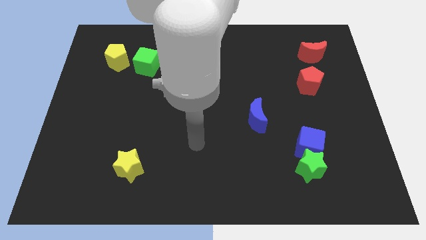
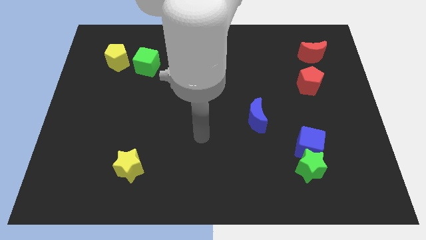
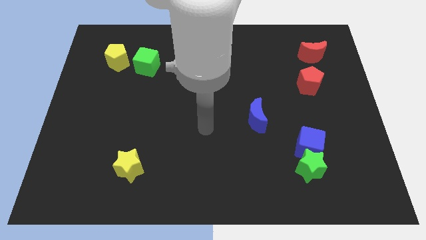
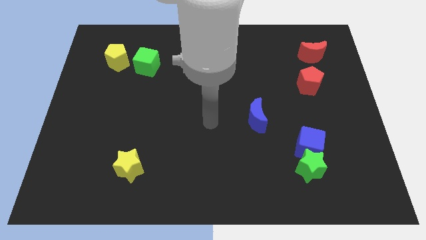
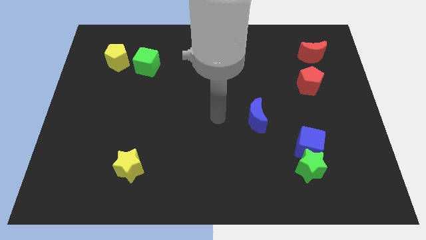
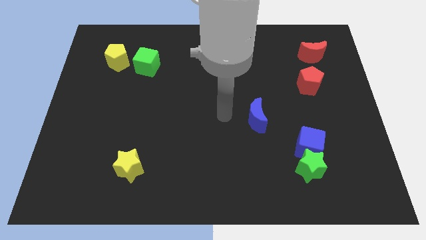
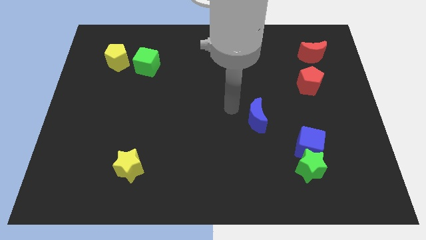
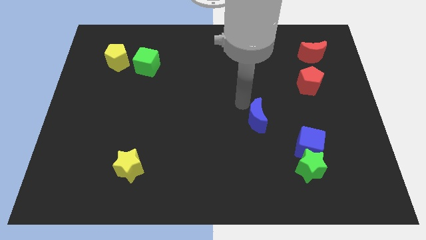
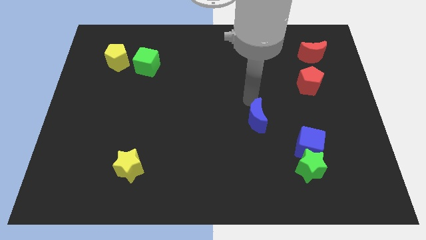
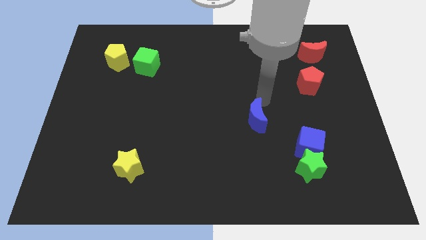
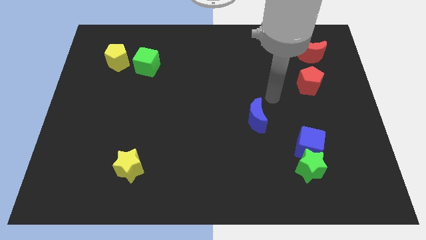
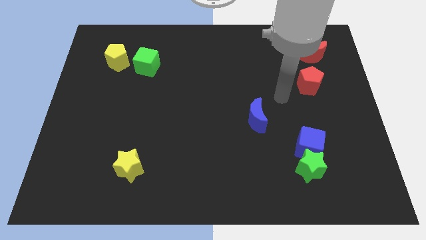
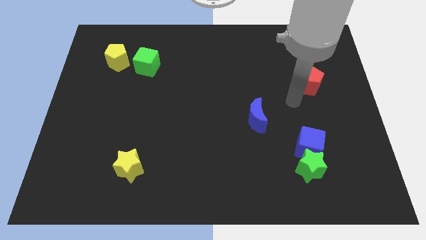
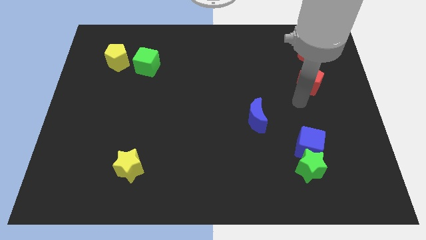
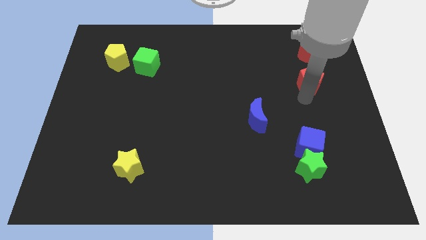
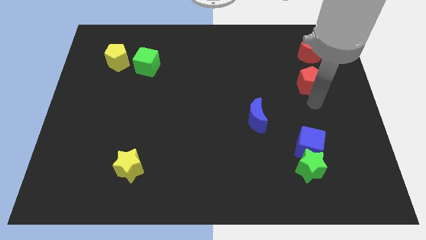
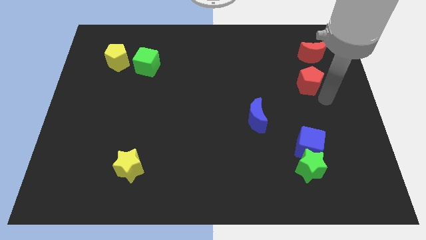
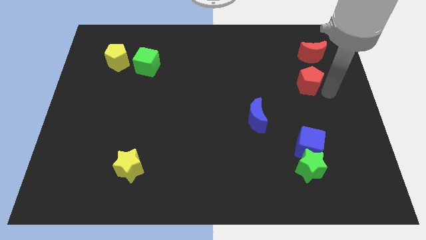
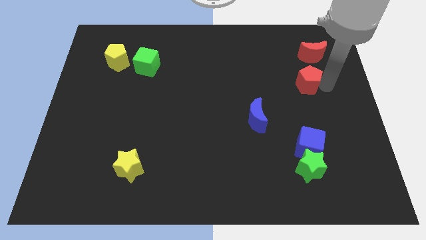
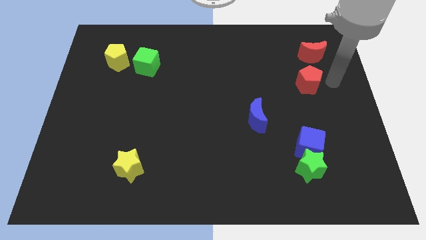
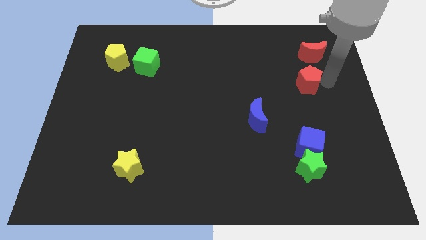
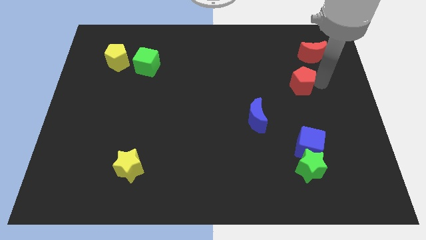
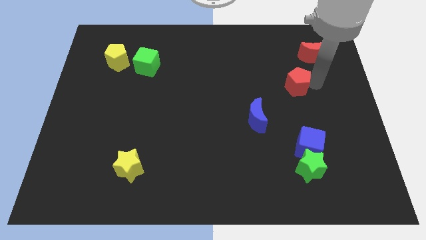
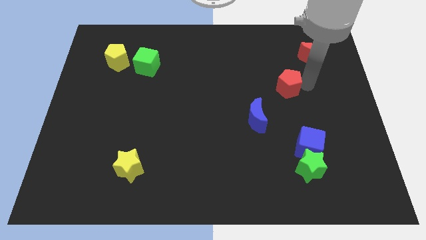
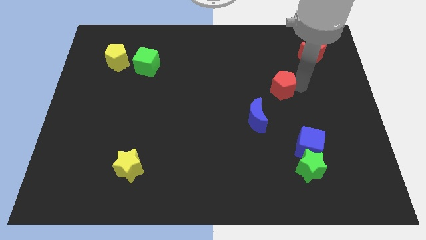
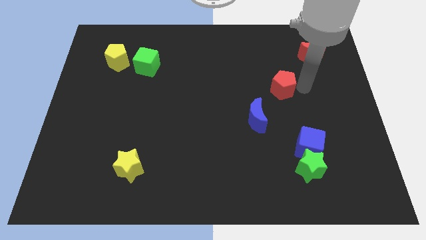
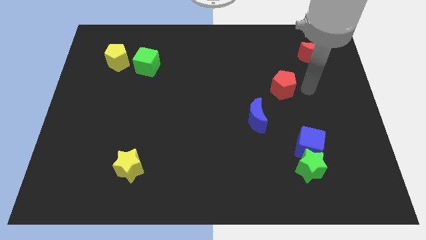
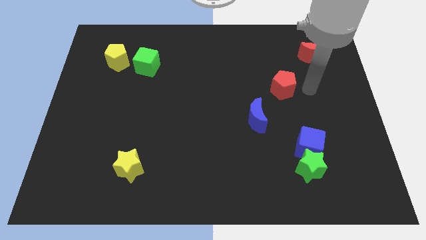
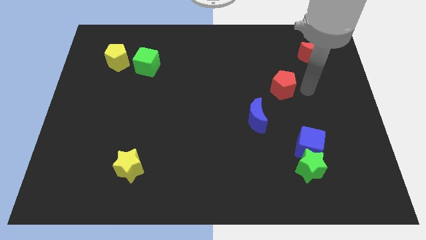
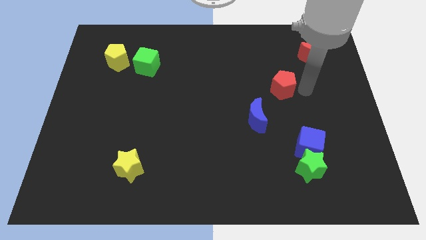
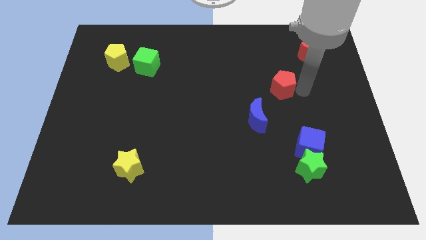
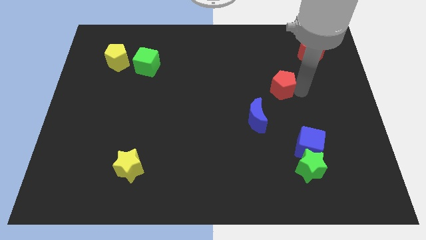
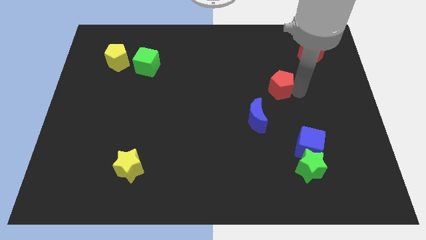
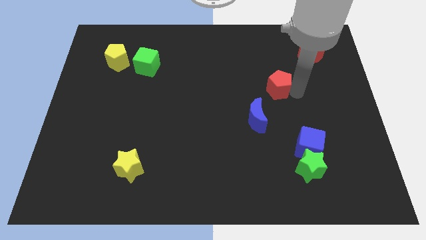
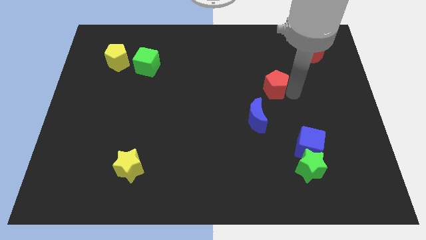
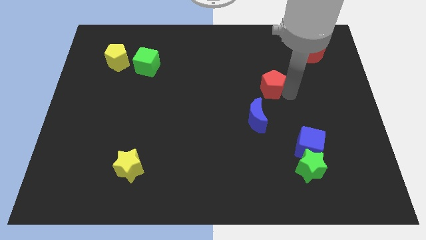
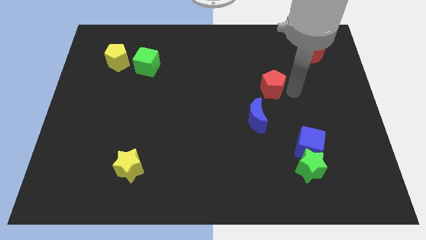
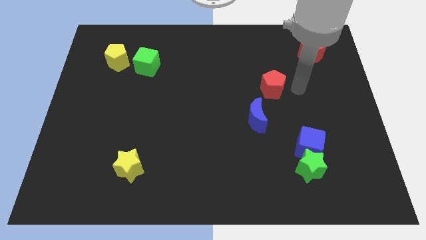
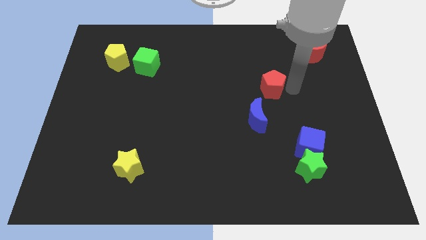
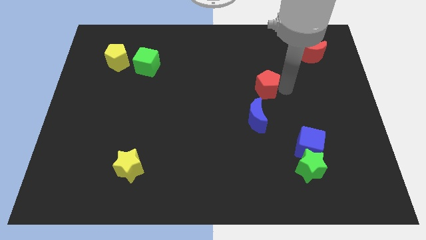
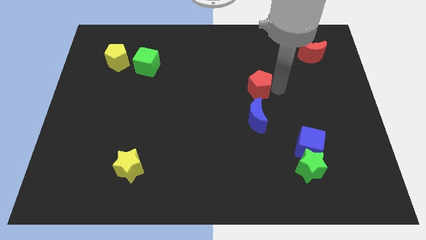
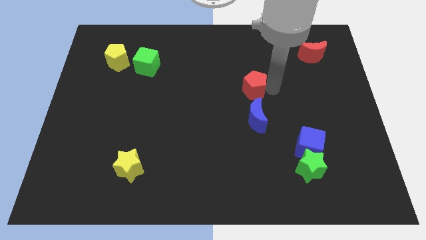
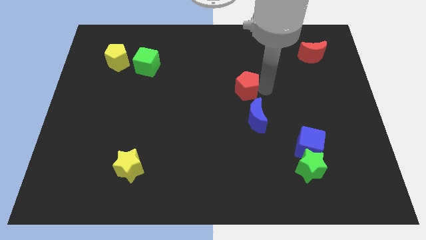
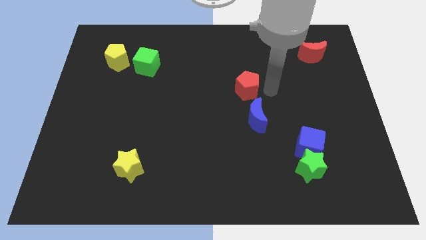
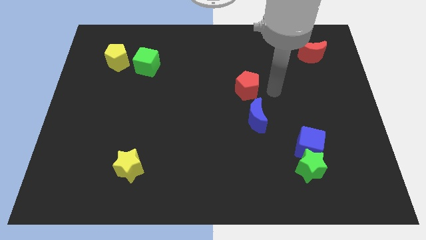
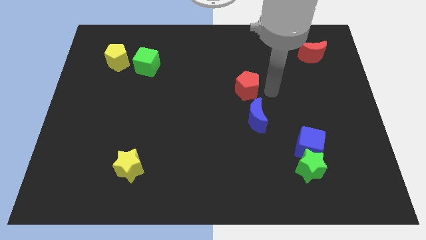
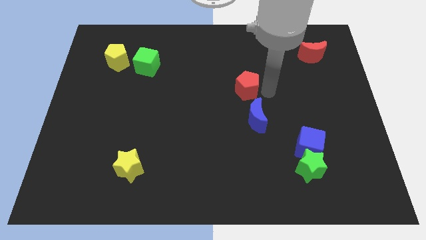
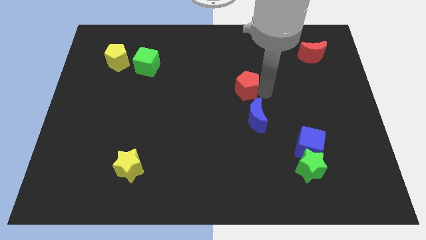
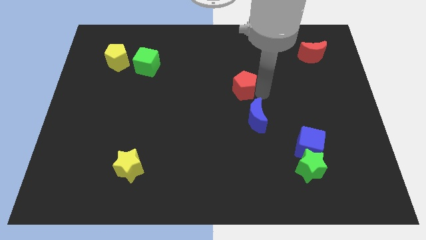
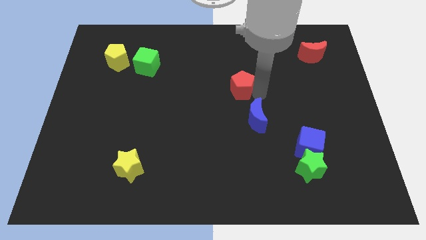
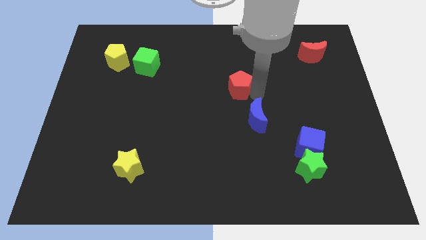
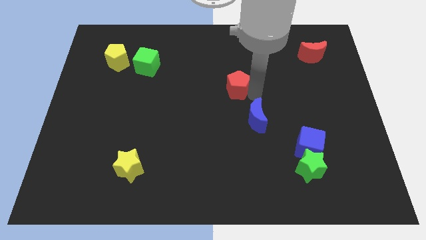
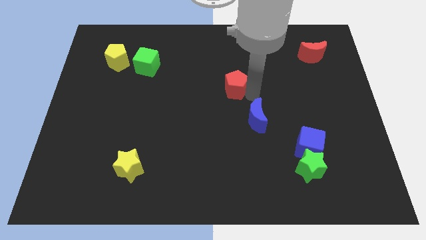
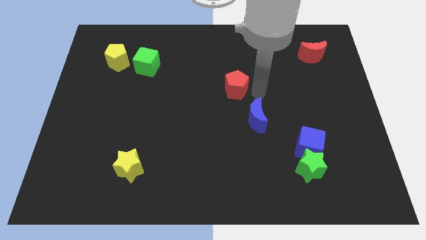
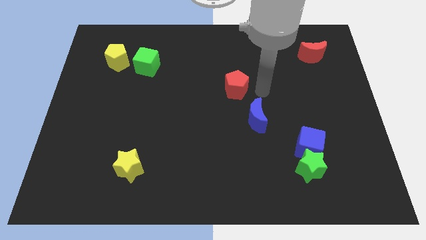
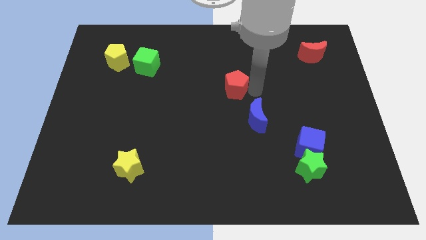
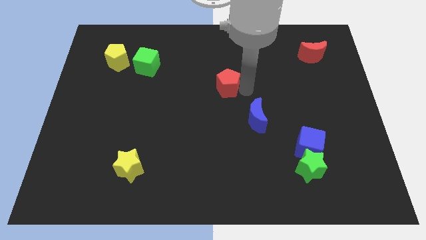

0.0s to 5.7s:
push the red pentagon to the left

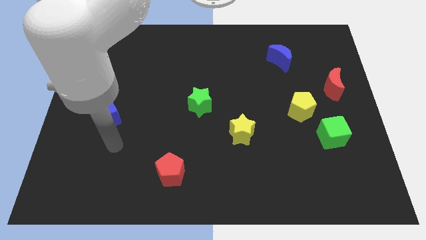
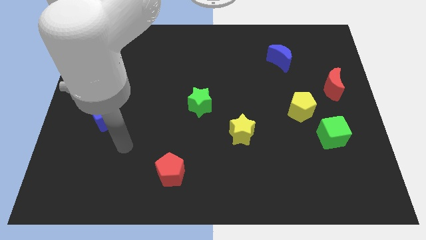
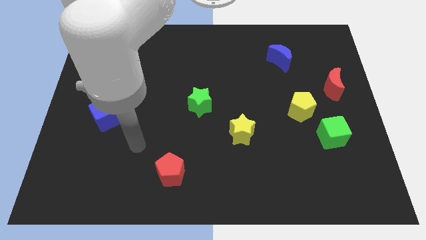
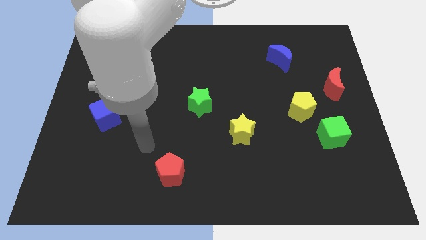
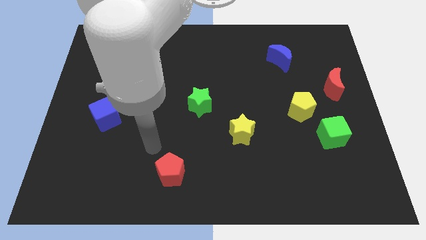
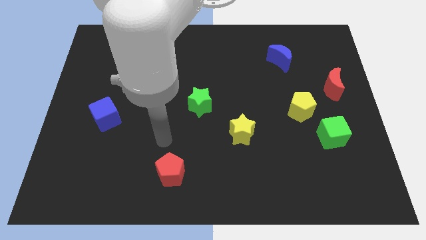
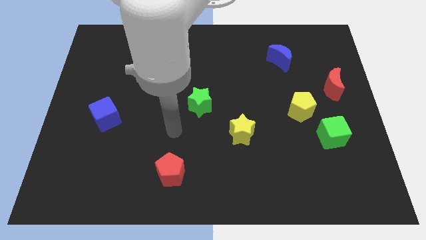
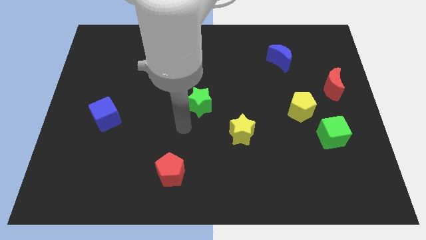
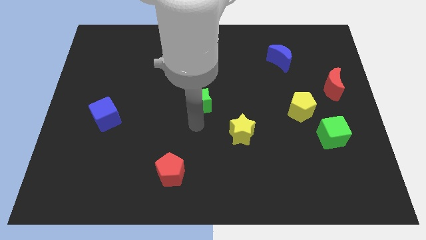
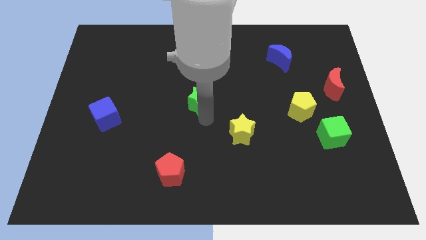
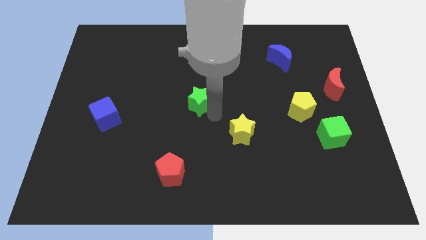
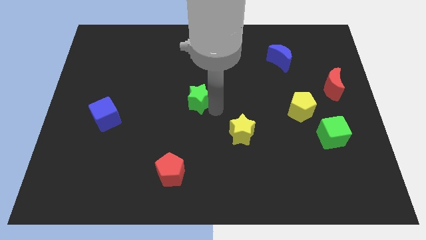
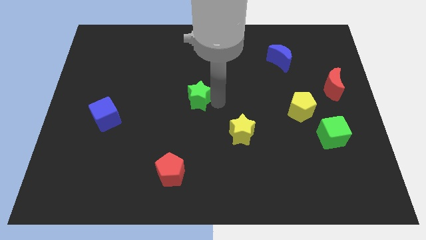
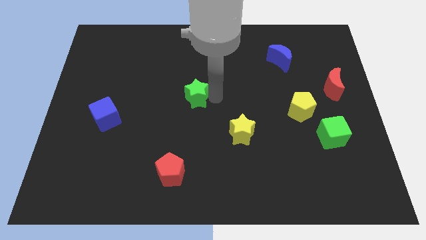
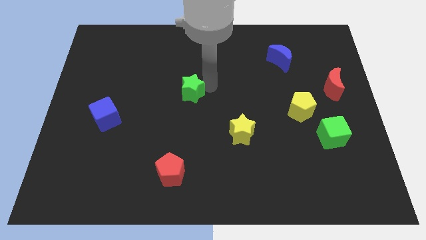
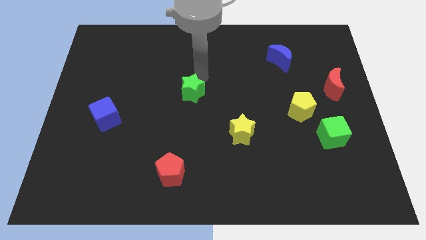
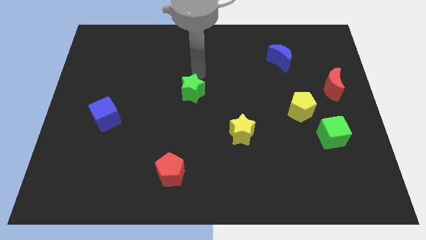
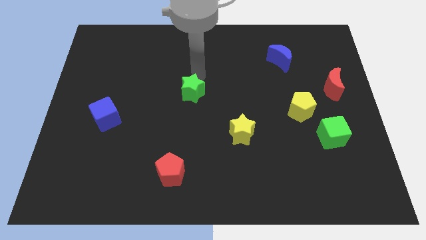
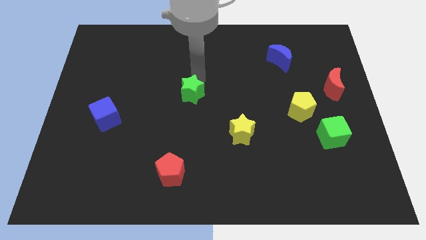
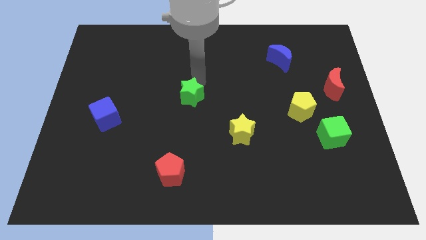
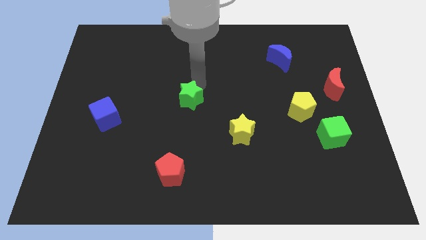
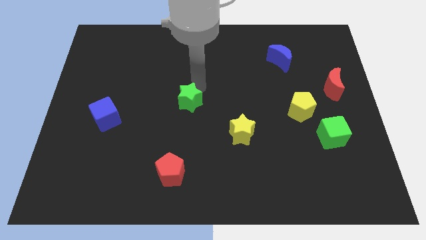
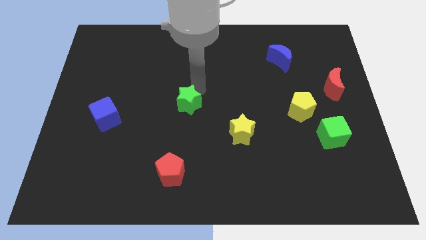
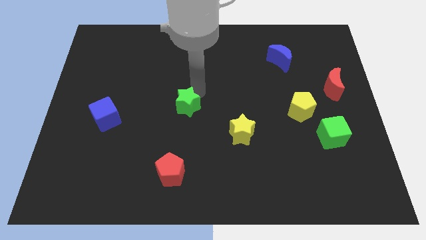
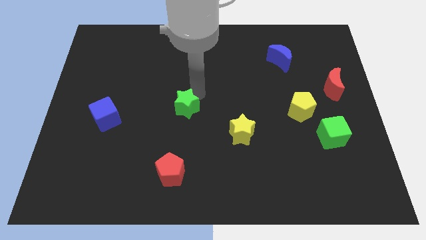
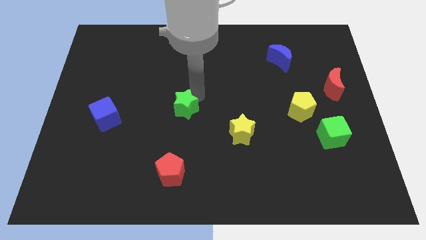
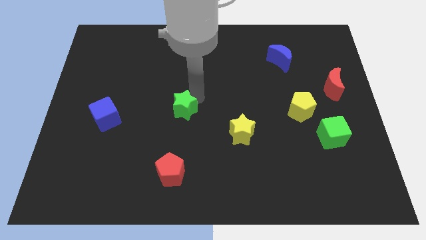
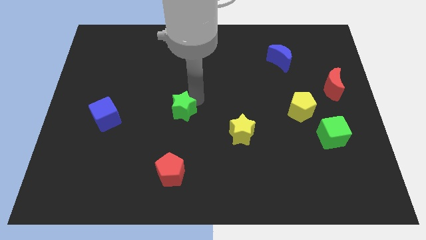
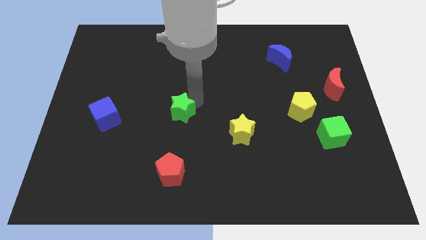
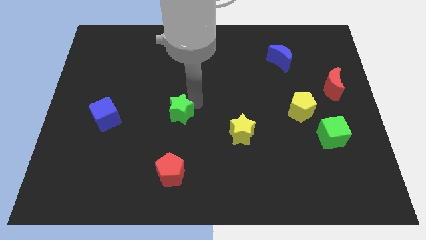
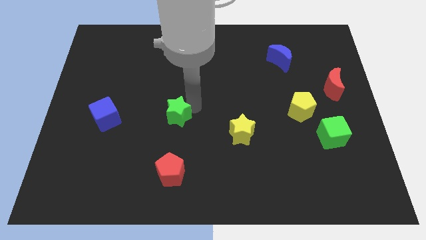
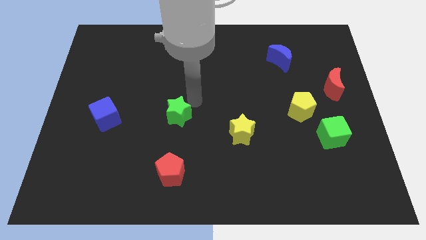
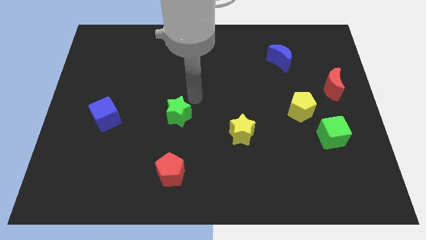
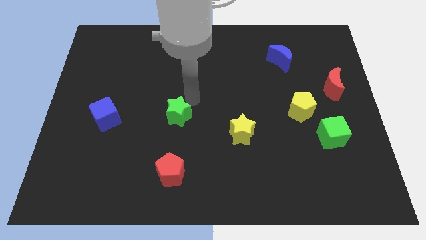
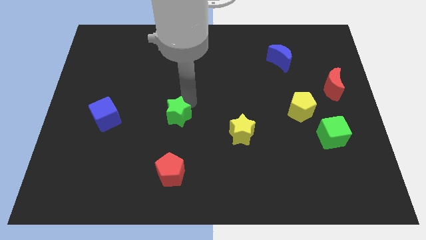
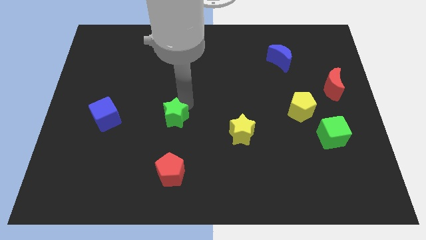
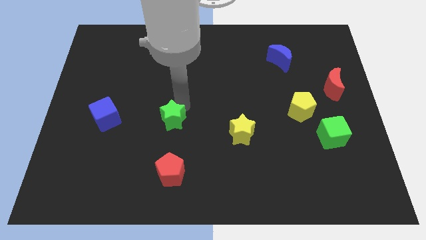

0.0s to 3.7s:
slightly push the green star downwards and to the left diagonally
